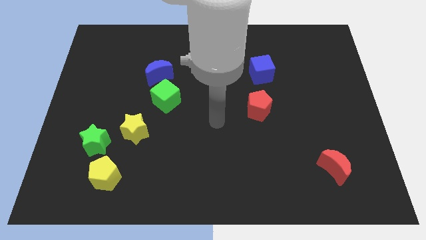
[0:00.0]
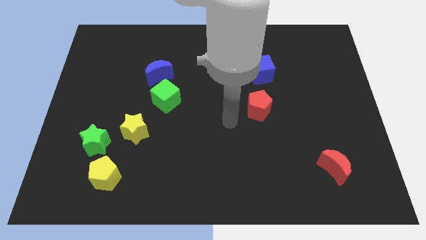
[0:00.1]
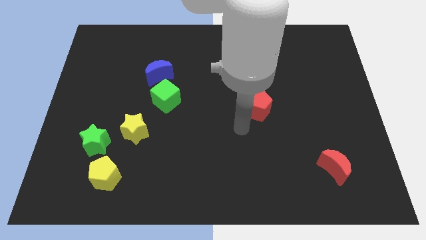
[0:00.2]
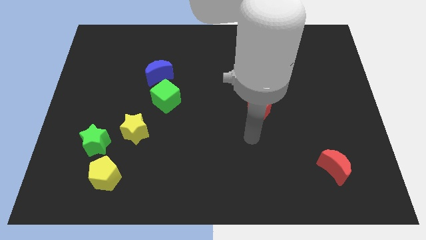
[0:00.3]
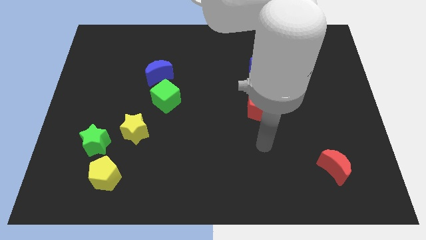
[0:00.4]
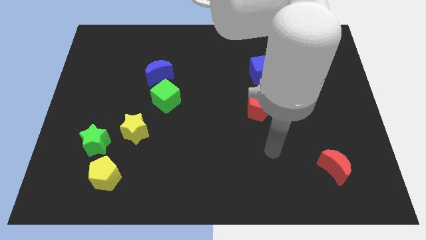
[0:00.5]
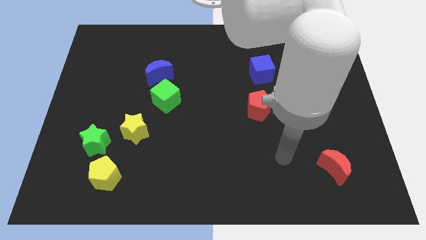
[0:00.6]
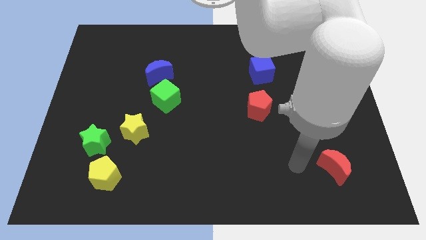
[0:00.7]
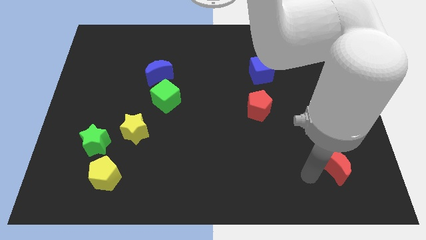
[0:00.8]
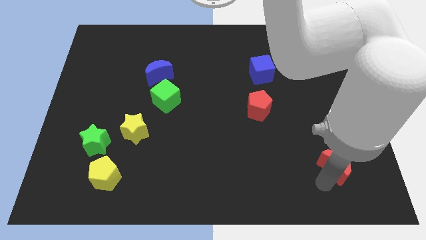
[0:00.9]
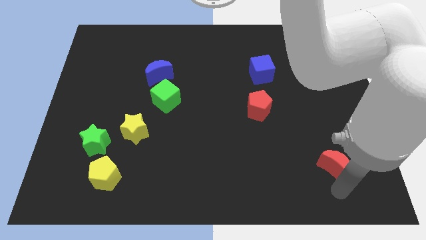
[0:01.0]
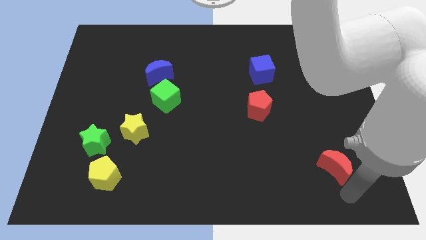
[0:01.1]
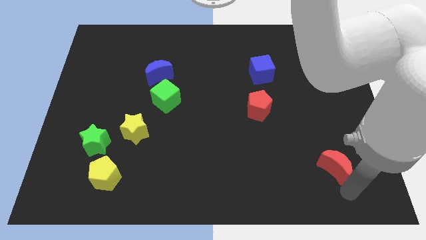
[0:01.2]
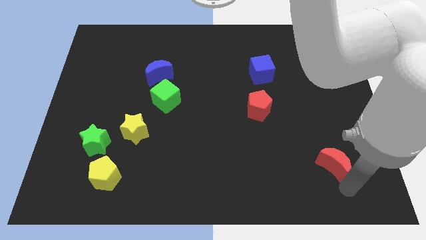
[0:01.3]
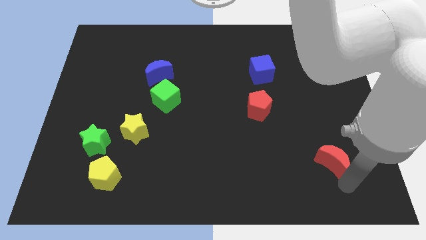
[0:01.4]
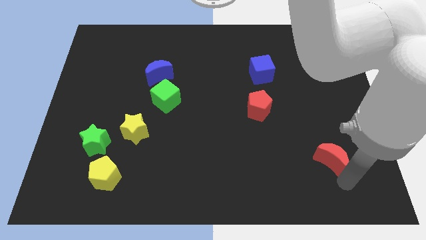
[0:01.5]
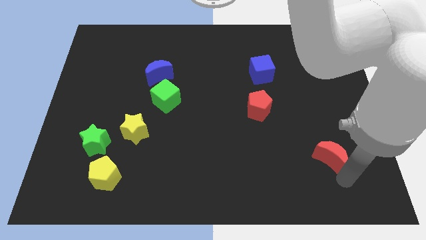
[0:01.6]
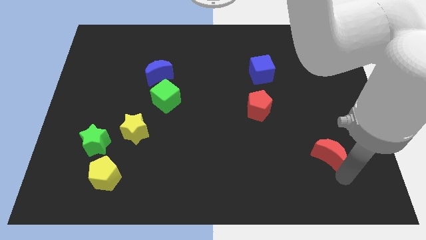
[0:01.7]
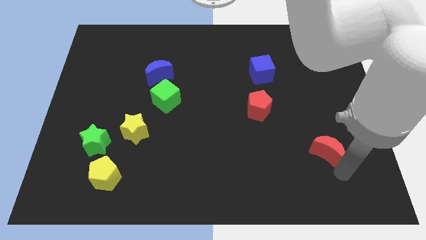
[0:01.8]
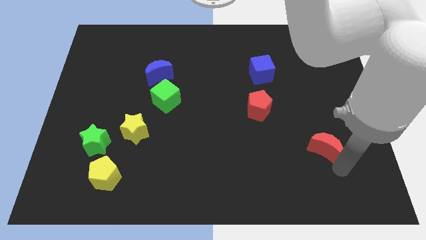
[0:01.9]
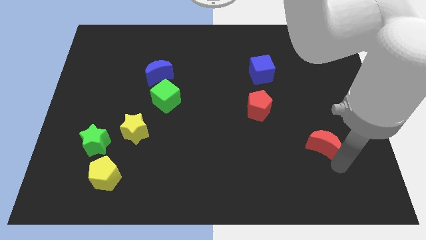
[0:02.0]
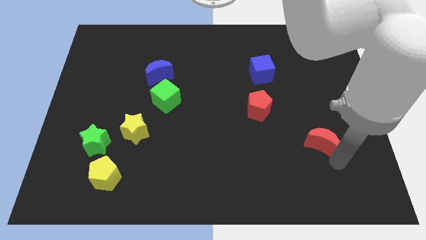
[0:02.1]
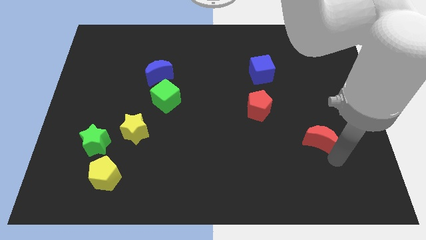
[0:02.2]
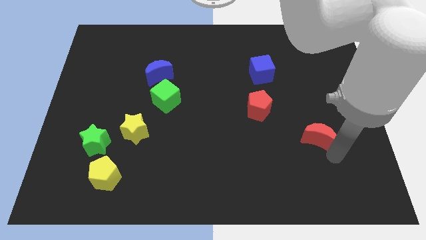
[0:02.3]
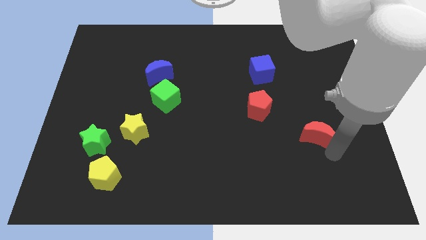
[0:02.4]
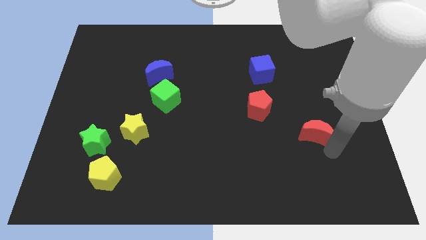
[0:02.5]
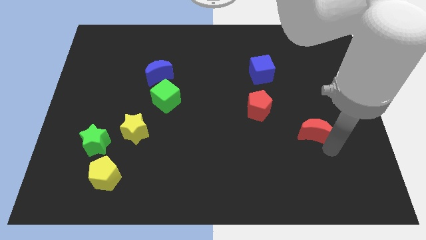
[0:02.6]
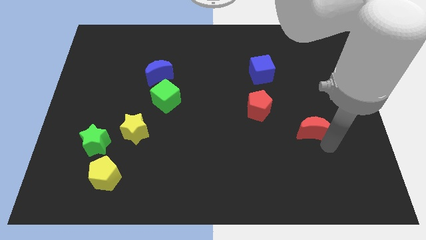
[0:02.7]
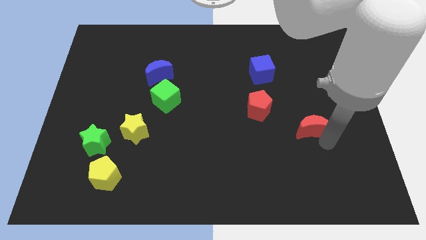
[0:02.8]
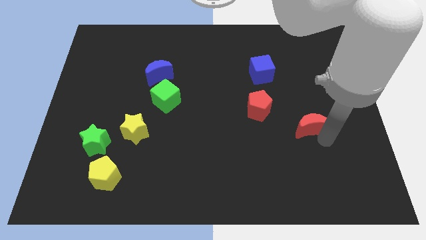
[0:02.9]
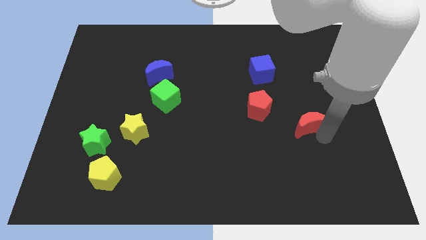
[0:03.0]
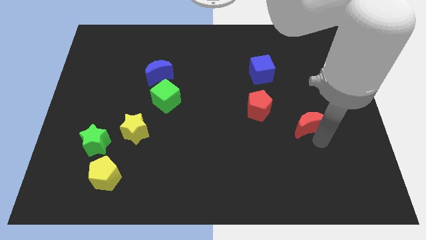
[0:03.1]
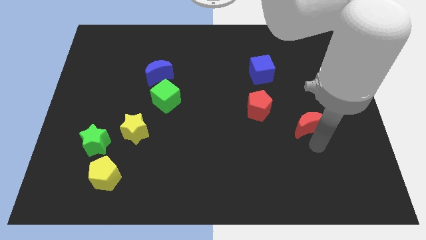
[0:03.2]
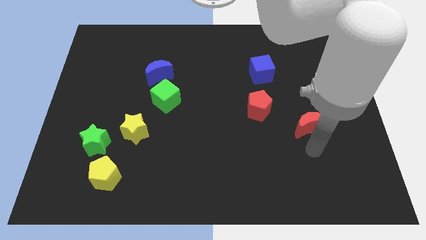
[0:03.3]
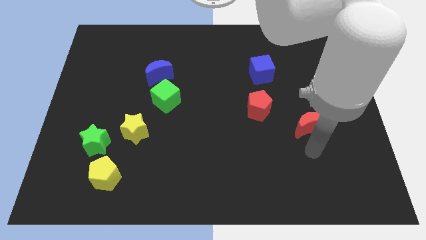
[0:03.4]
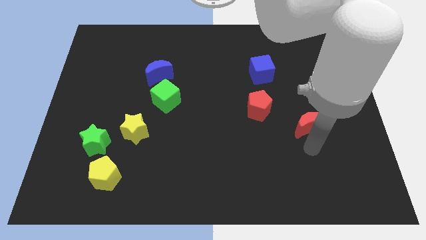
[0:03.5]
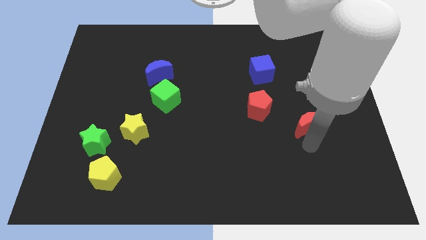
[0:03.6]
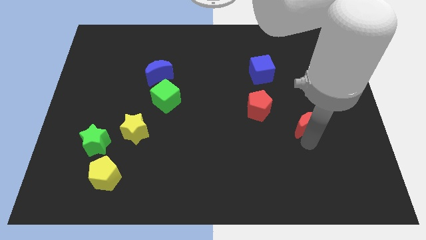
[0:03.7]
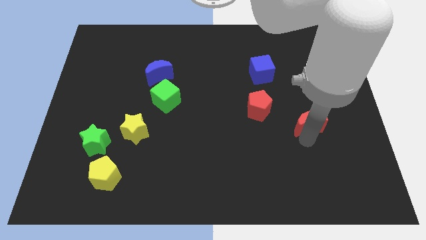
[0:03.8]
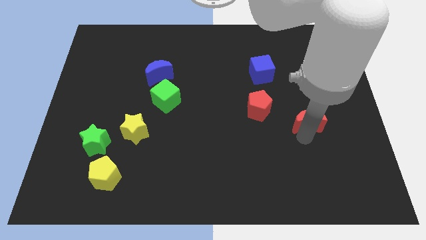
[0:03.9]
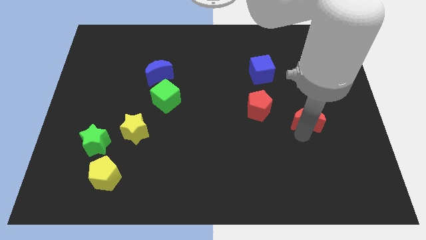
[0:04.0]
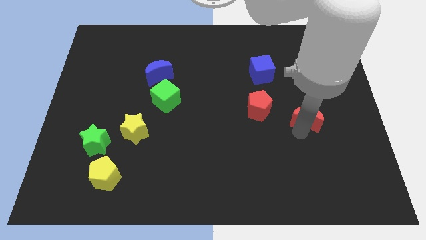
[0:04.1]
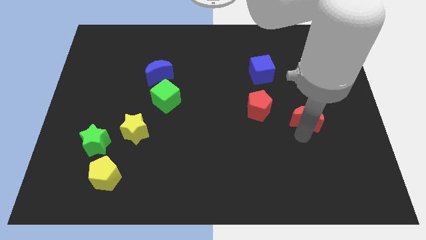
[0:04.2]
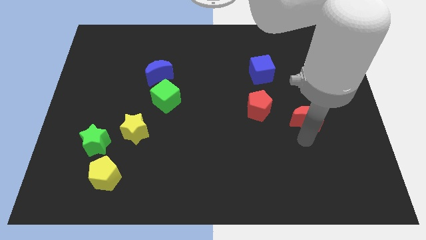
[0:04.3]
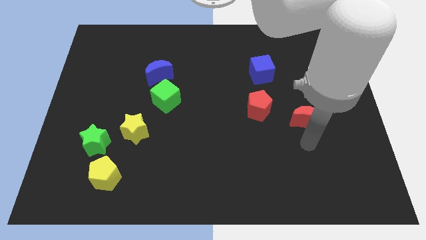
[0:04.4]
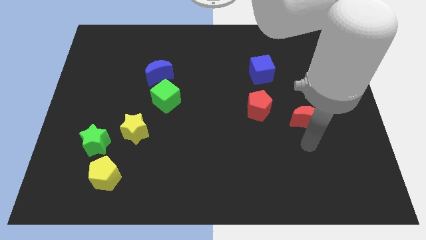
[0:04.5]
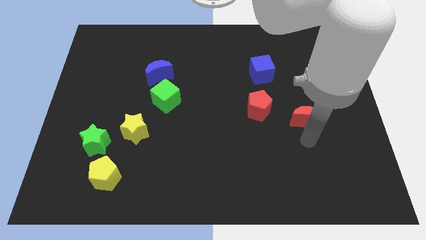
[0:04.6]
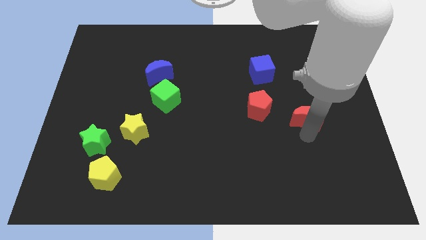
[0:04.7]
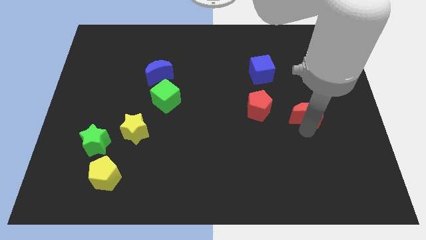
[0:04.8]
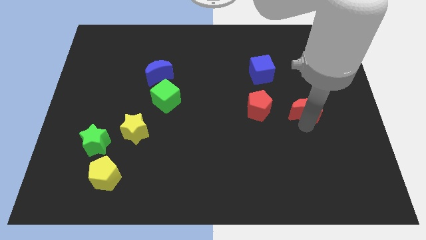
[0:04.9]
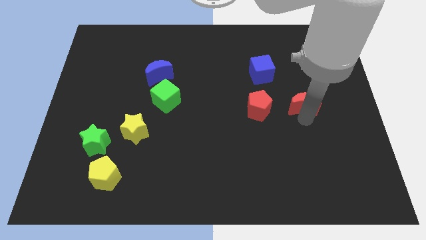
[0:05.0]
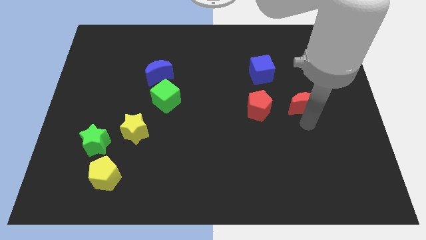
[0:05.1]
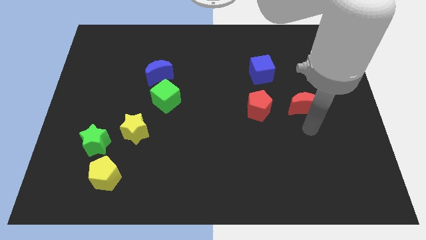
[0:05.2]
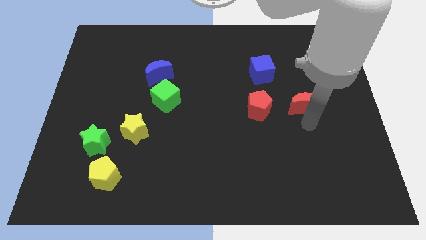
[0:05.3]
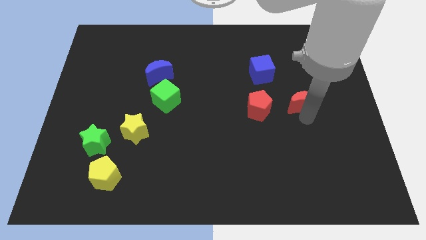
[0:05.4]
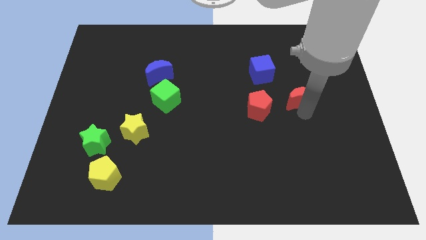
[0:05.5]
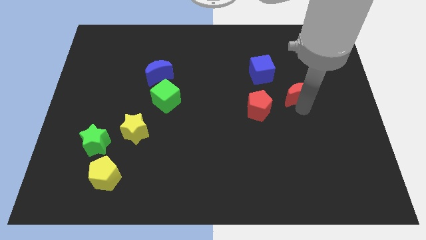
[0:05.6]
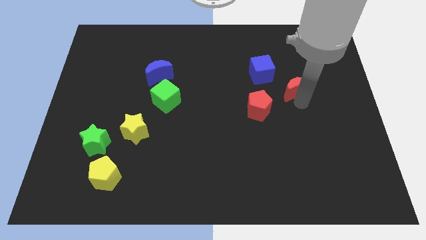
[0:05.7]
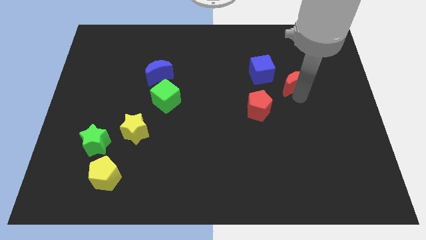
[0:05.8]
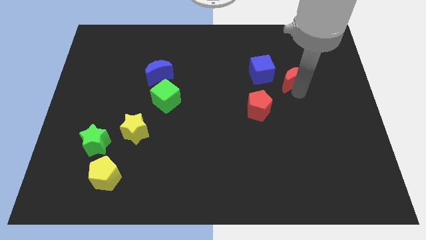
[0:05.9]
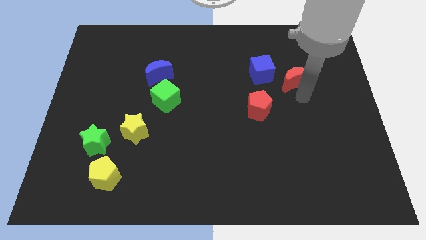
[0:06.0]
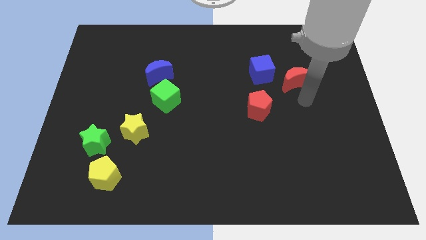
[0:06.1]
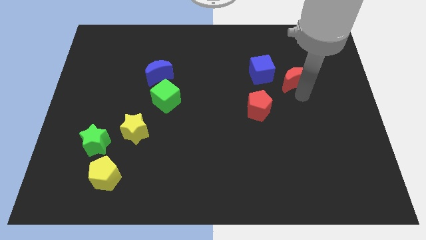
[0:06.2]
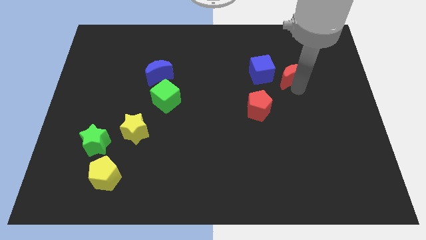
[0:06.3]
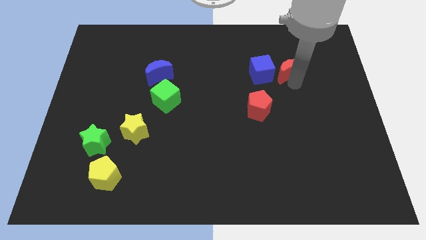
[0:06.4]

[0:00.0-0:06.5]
push the red moon to the top right side of the blue cube

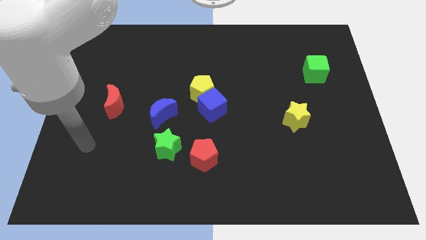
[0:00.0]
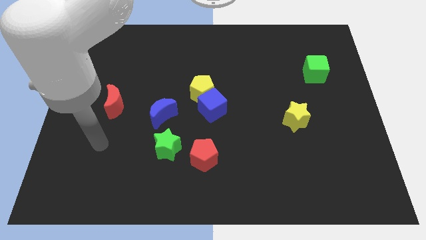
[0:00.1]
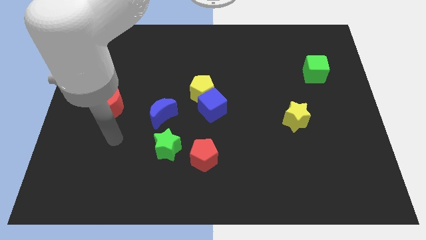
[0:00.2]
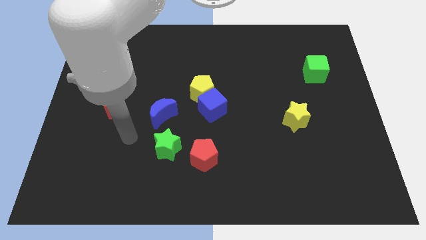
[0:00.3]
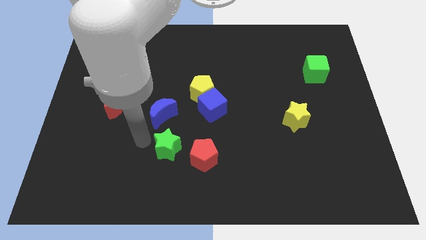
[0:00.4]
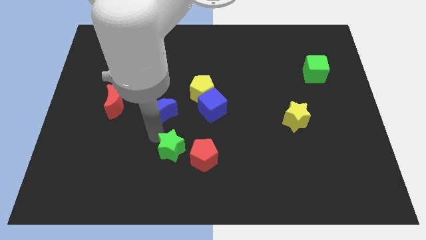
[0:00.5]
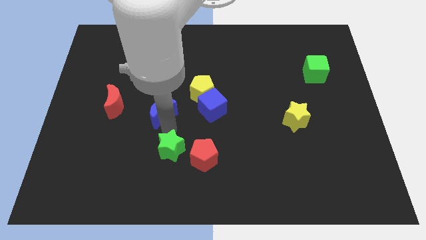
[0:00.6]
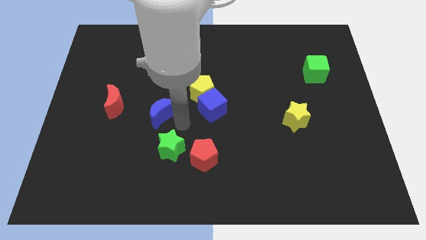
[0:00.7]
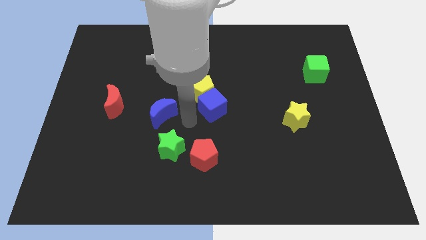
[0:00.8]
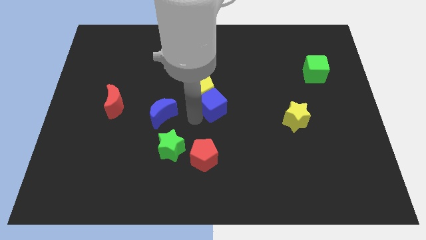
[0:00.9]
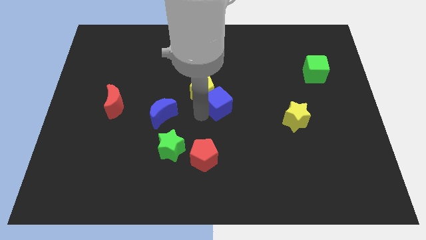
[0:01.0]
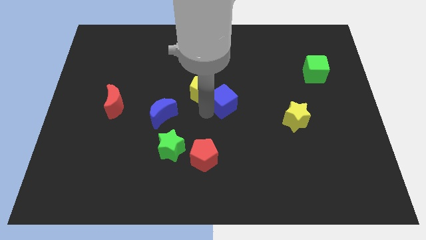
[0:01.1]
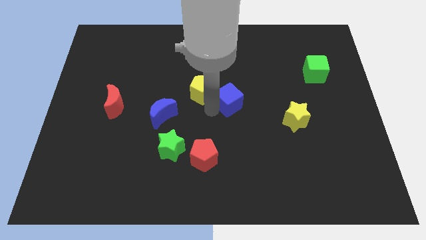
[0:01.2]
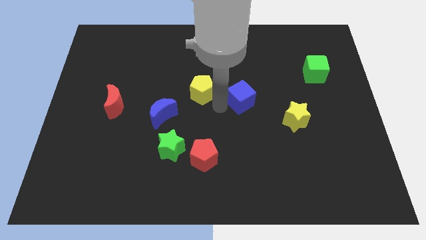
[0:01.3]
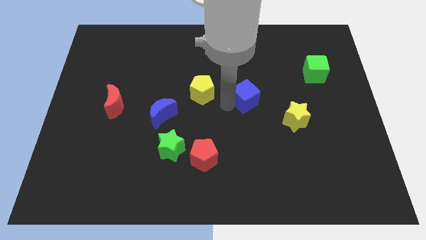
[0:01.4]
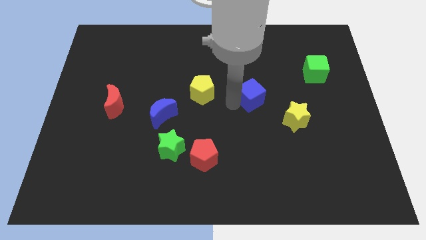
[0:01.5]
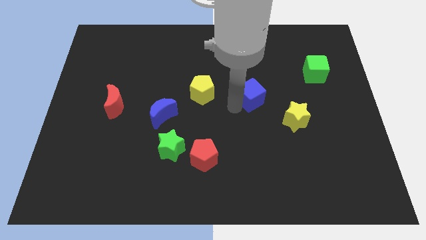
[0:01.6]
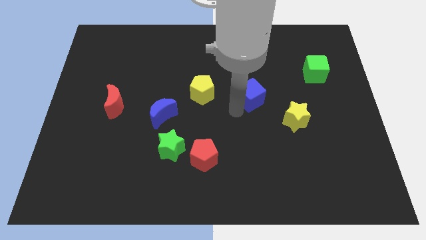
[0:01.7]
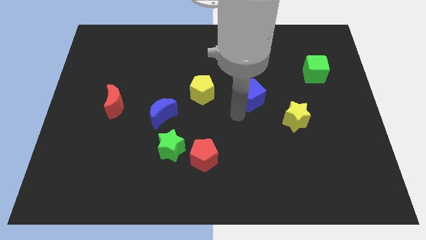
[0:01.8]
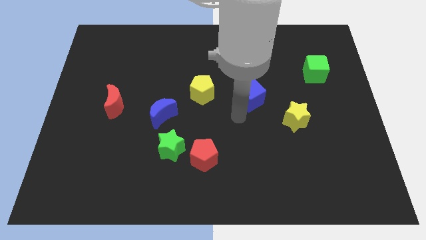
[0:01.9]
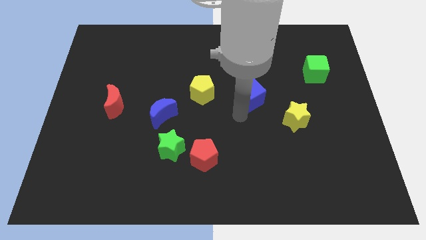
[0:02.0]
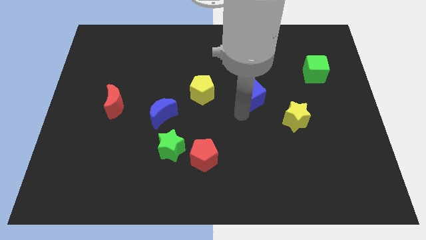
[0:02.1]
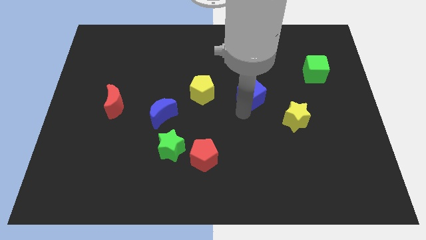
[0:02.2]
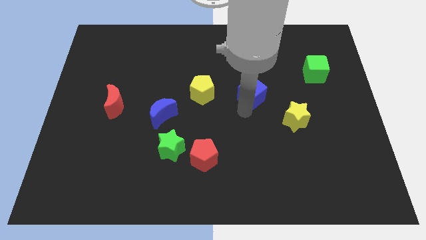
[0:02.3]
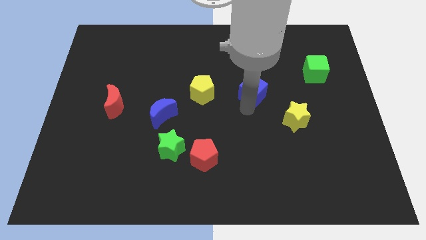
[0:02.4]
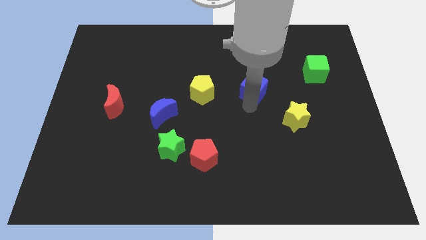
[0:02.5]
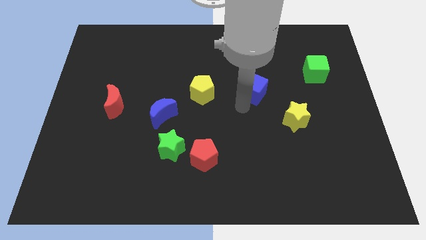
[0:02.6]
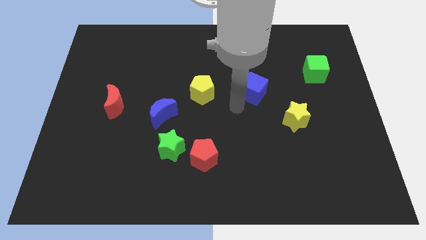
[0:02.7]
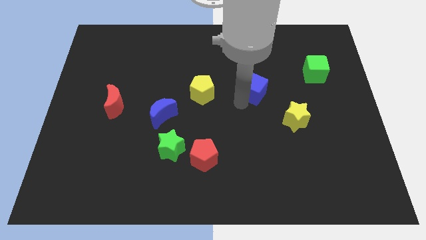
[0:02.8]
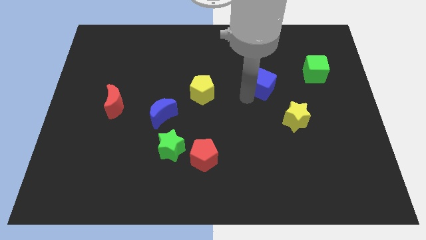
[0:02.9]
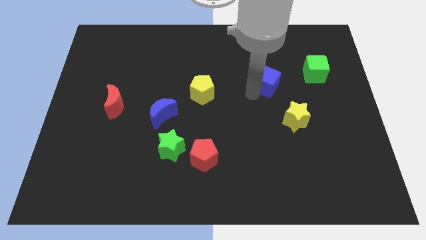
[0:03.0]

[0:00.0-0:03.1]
push the blue cube to the left of the green cube
